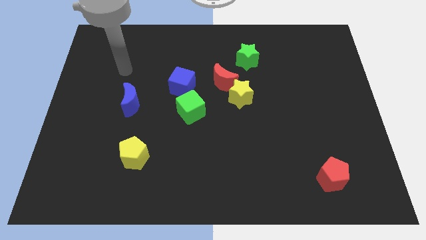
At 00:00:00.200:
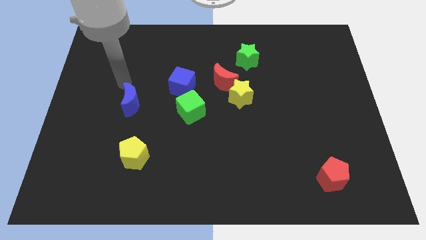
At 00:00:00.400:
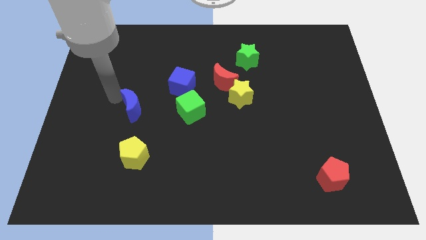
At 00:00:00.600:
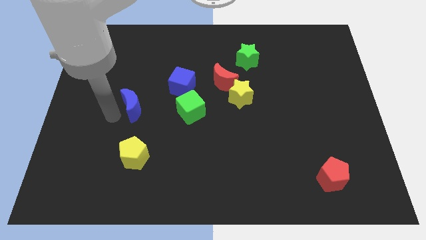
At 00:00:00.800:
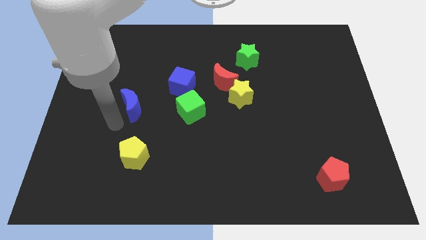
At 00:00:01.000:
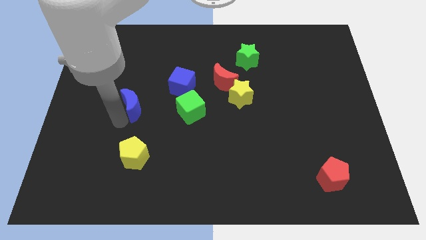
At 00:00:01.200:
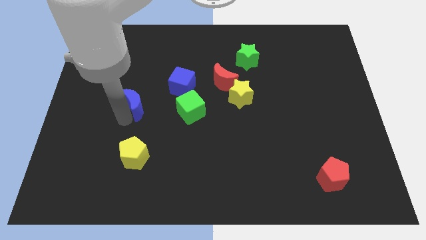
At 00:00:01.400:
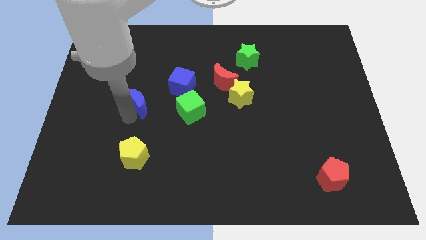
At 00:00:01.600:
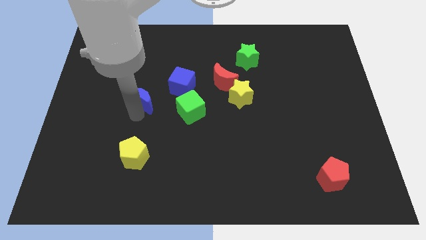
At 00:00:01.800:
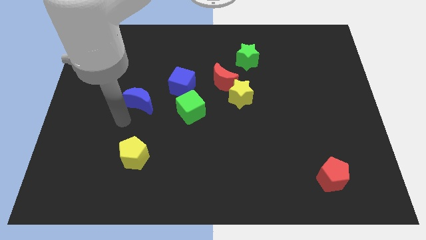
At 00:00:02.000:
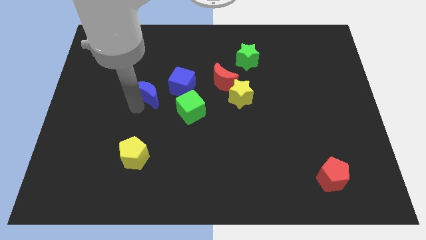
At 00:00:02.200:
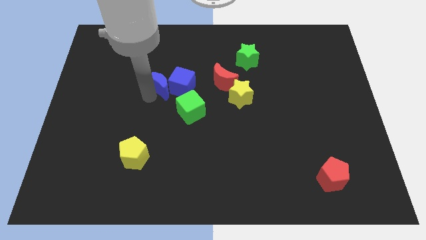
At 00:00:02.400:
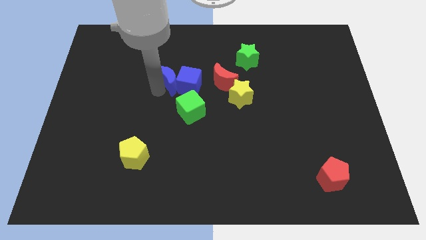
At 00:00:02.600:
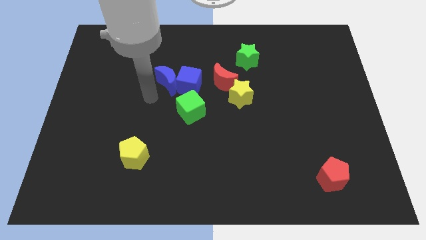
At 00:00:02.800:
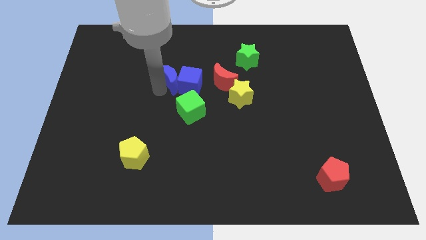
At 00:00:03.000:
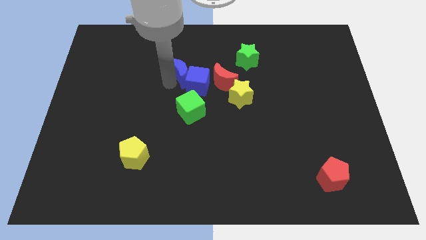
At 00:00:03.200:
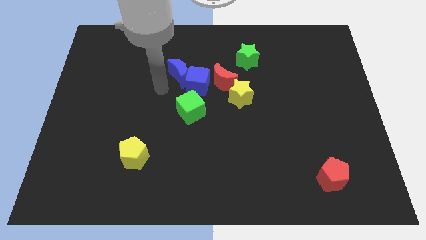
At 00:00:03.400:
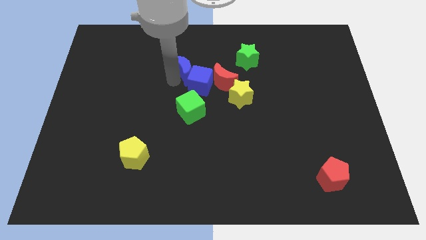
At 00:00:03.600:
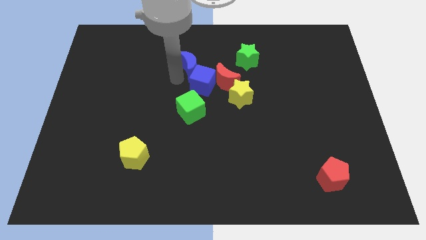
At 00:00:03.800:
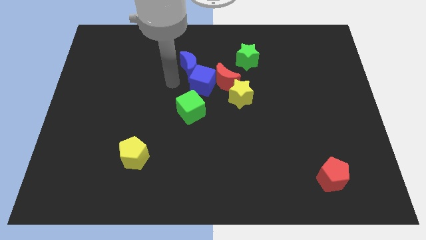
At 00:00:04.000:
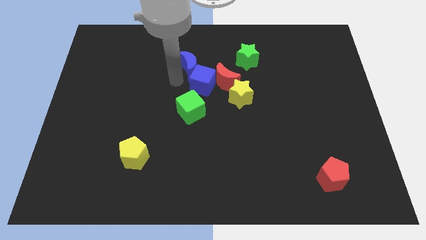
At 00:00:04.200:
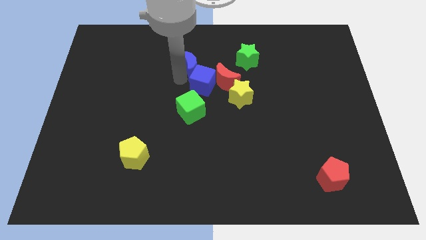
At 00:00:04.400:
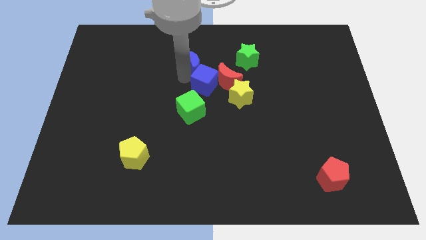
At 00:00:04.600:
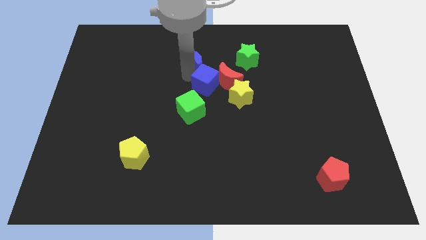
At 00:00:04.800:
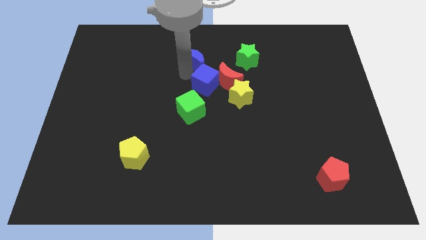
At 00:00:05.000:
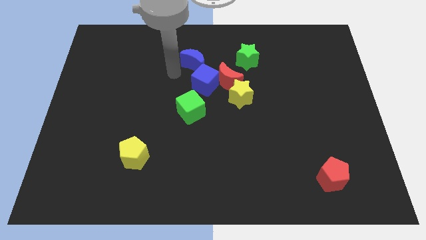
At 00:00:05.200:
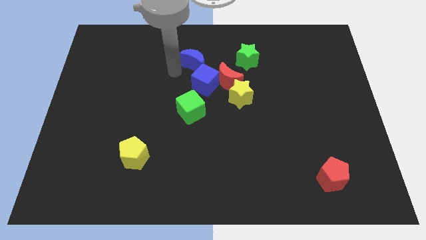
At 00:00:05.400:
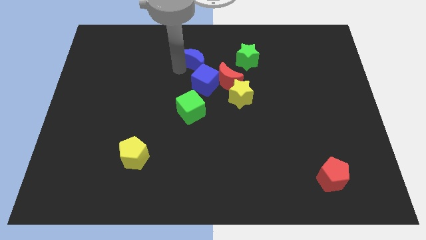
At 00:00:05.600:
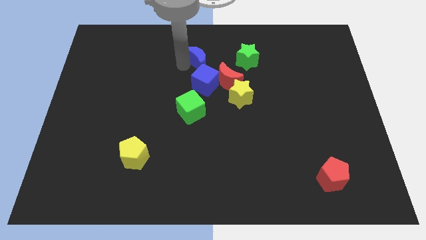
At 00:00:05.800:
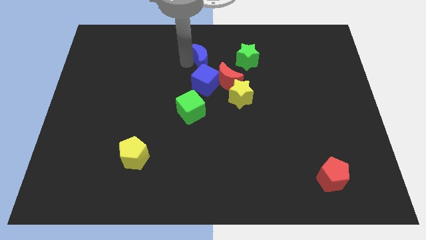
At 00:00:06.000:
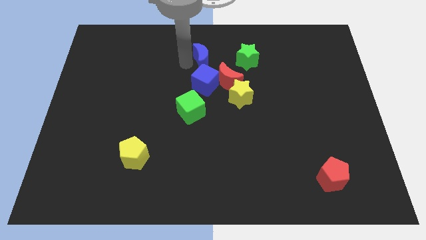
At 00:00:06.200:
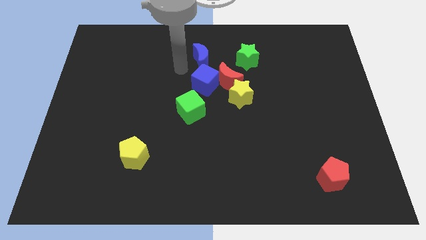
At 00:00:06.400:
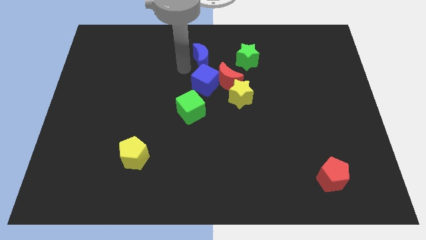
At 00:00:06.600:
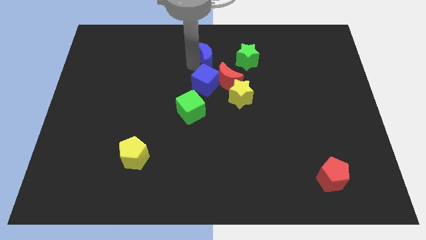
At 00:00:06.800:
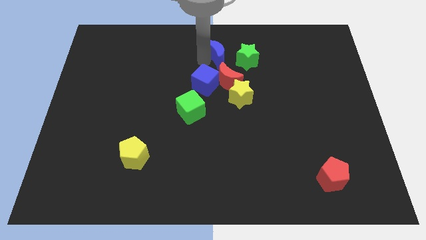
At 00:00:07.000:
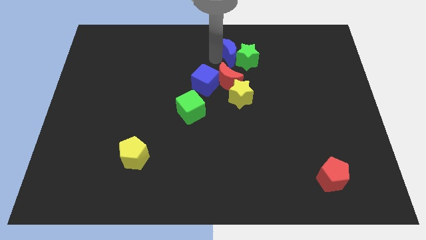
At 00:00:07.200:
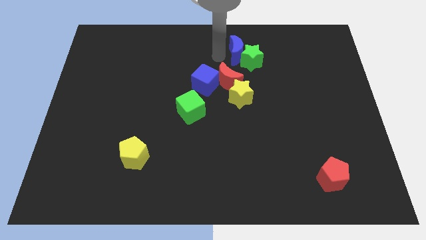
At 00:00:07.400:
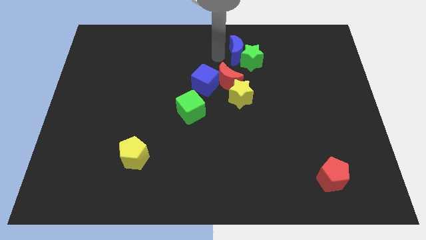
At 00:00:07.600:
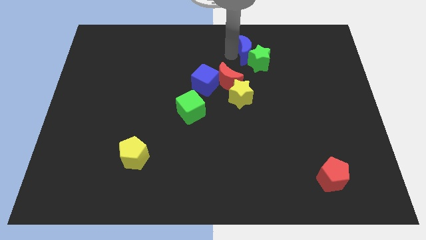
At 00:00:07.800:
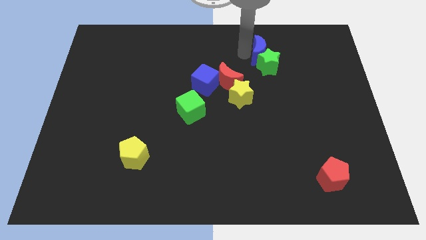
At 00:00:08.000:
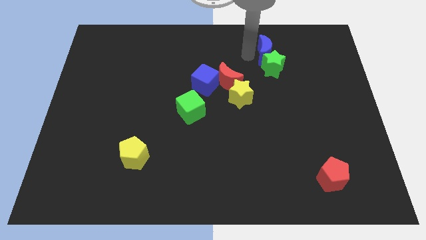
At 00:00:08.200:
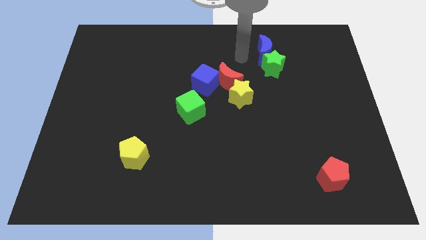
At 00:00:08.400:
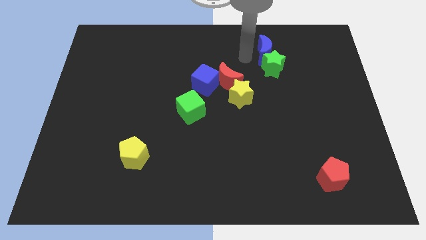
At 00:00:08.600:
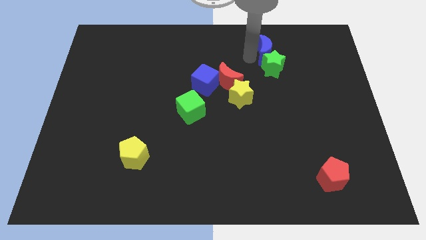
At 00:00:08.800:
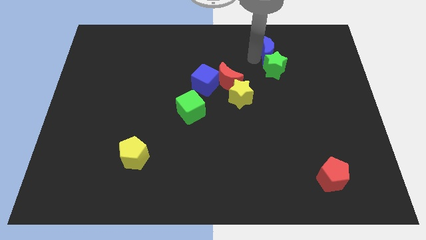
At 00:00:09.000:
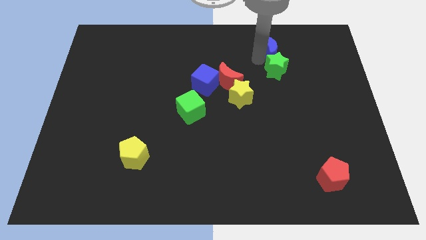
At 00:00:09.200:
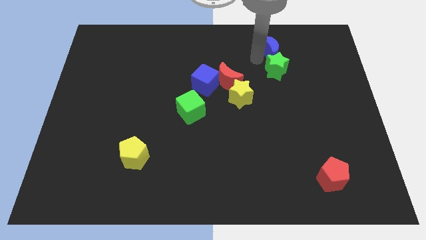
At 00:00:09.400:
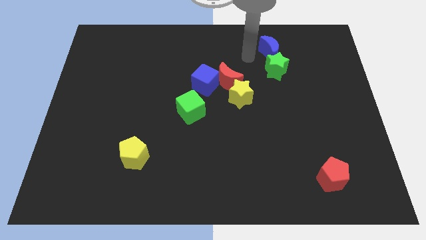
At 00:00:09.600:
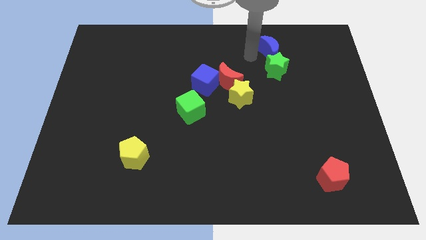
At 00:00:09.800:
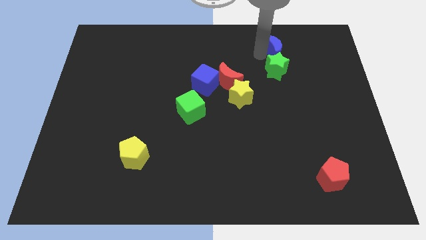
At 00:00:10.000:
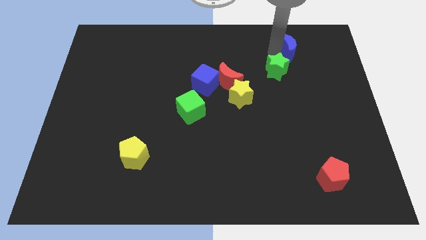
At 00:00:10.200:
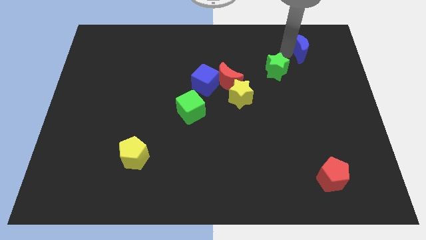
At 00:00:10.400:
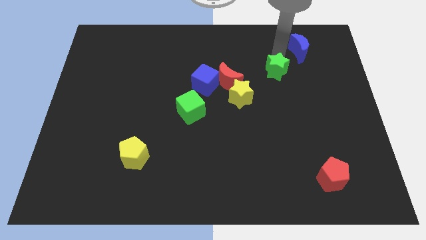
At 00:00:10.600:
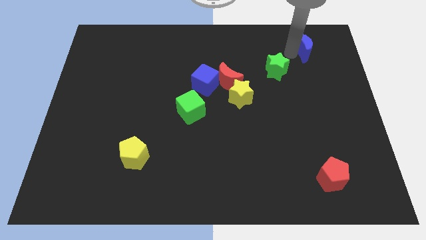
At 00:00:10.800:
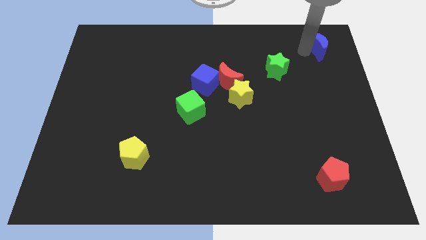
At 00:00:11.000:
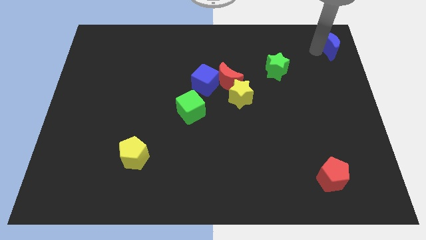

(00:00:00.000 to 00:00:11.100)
move the blue moon to the top right corner
